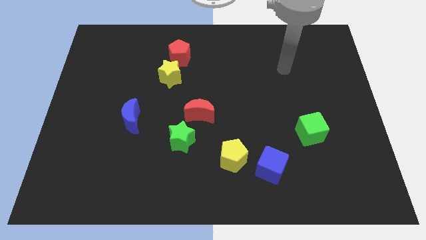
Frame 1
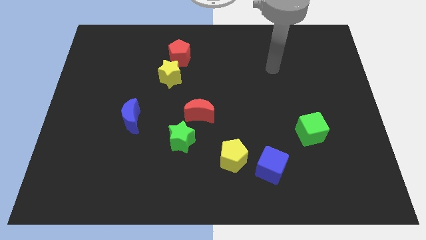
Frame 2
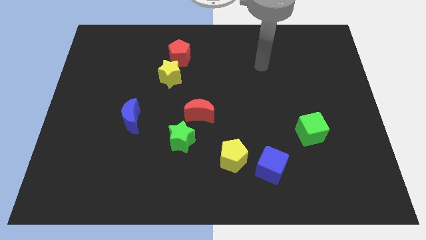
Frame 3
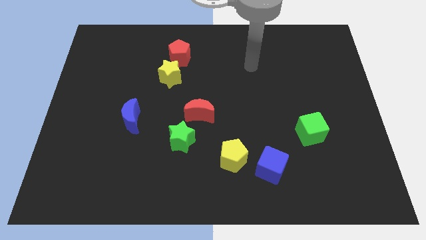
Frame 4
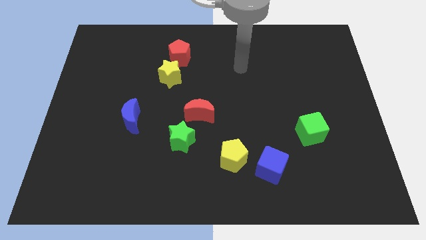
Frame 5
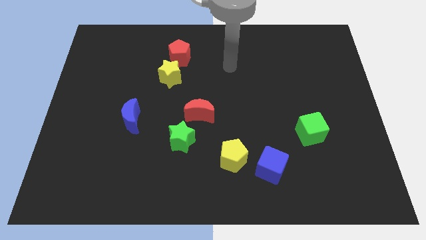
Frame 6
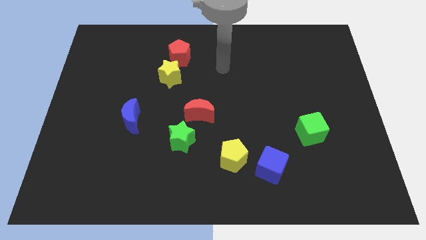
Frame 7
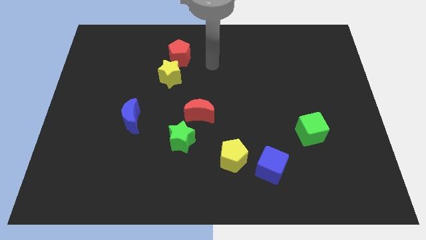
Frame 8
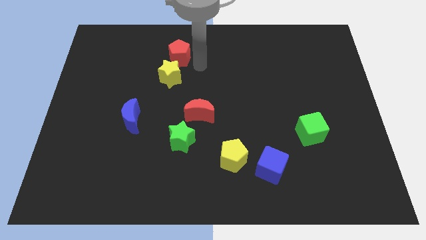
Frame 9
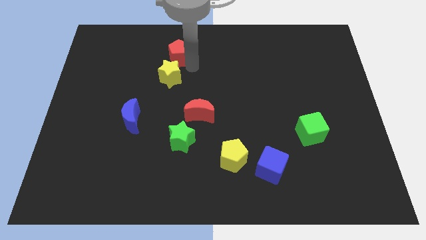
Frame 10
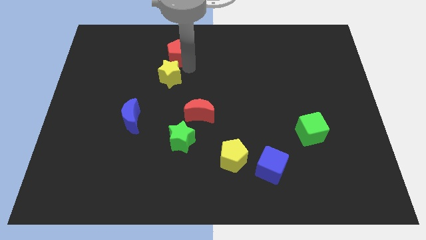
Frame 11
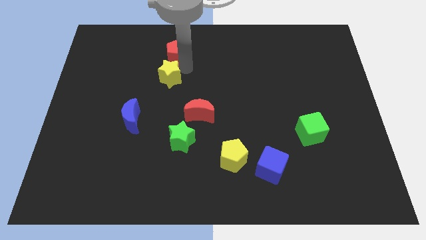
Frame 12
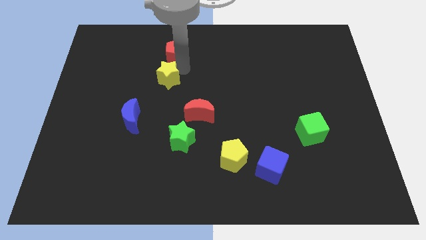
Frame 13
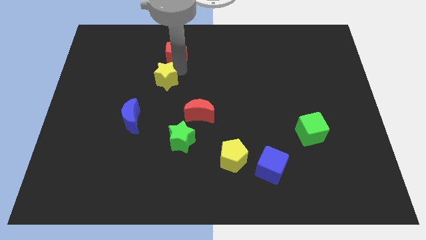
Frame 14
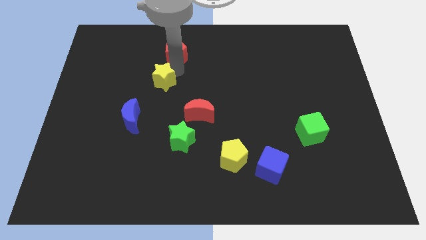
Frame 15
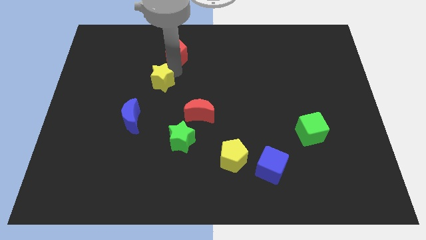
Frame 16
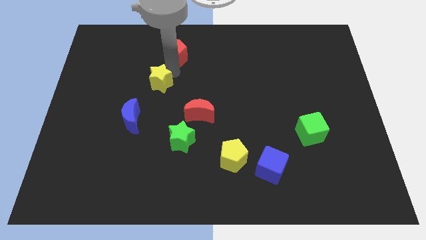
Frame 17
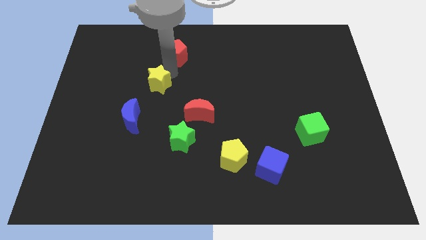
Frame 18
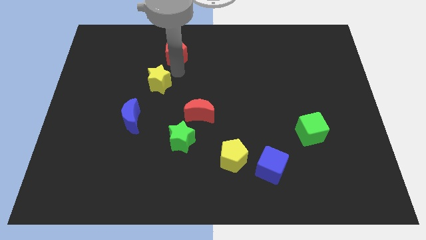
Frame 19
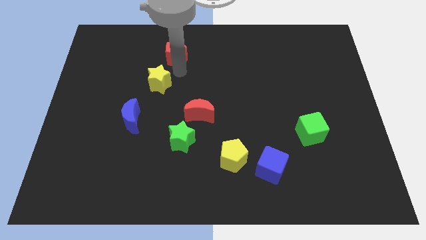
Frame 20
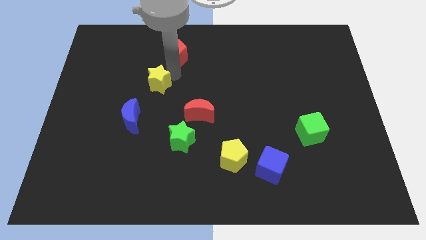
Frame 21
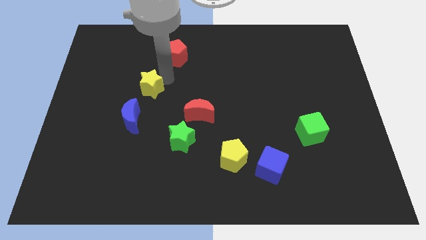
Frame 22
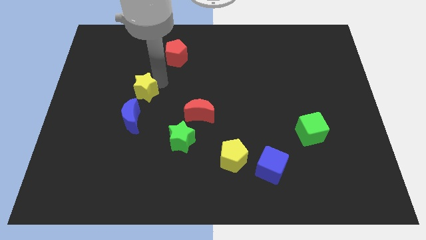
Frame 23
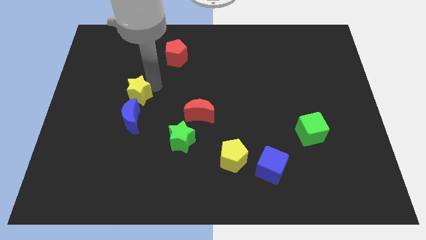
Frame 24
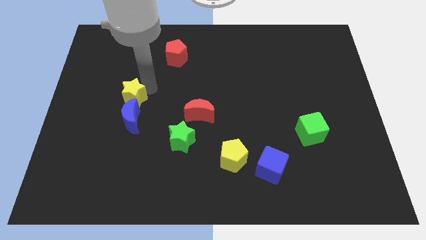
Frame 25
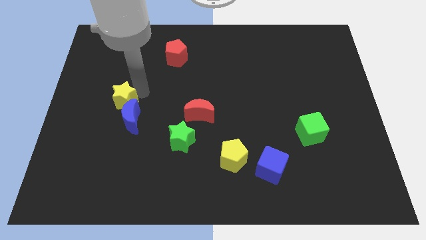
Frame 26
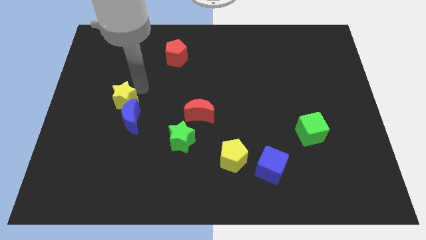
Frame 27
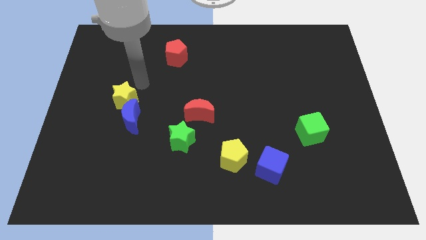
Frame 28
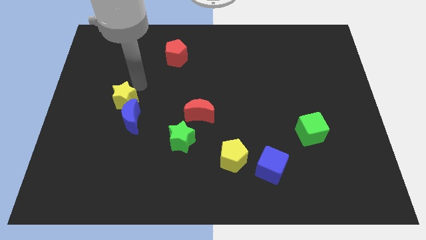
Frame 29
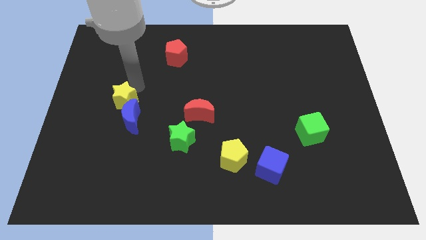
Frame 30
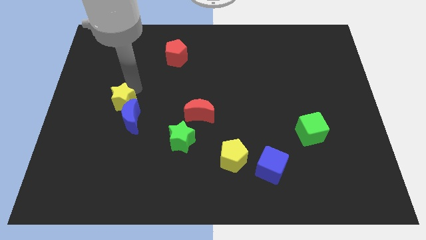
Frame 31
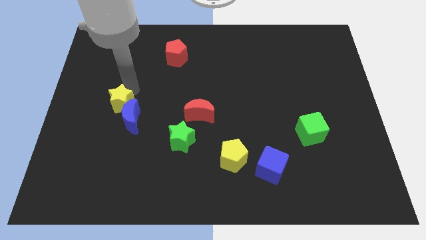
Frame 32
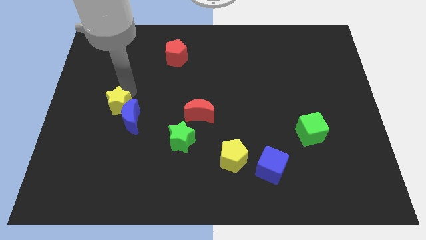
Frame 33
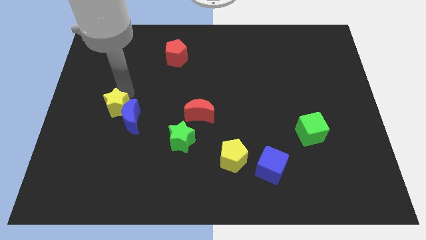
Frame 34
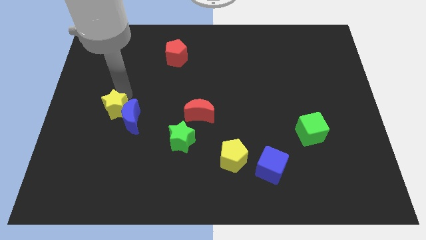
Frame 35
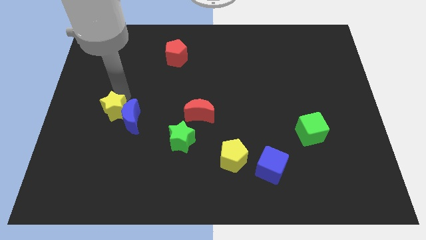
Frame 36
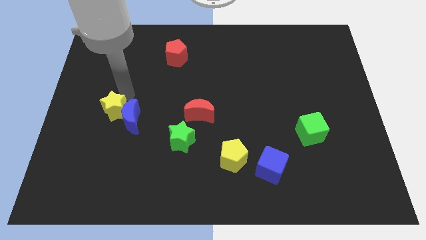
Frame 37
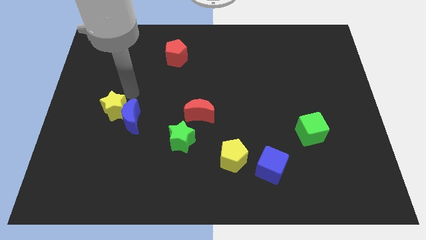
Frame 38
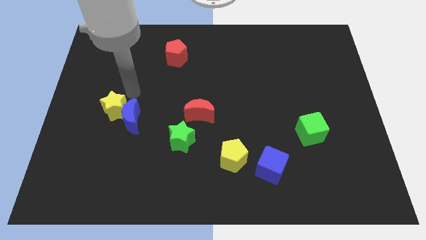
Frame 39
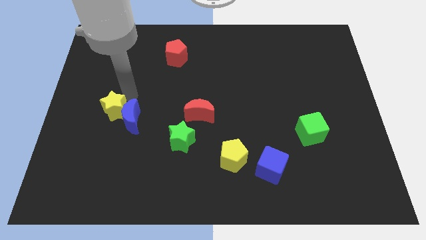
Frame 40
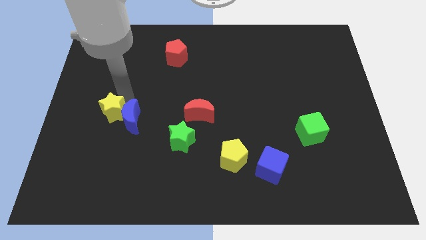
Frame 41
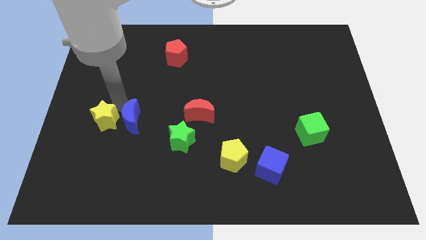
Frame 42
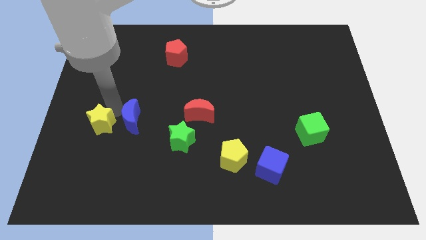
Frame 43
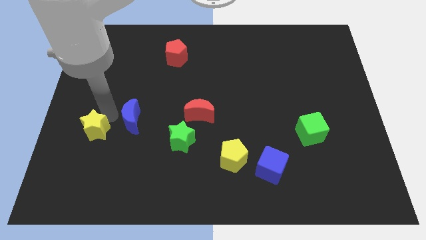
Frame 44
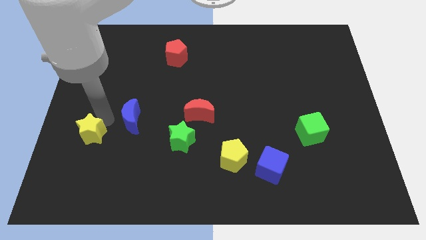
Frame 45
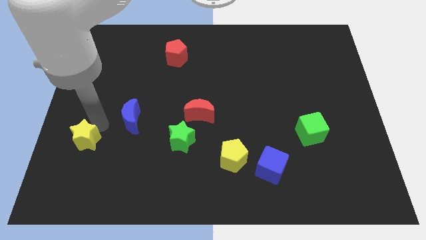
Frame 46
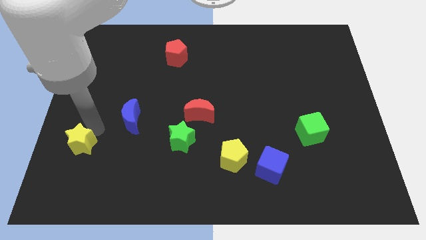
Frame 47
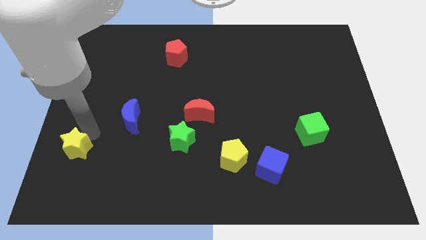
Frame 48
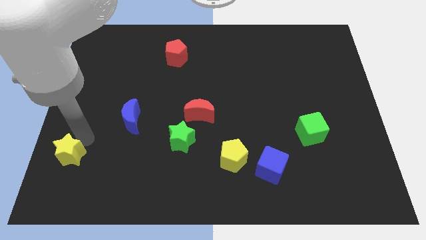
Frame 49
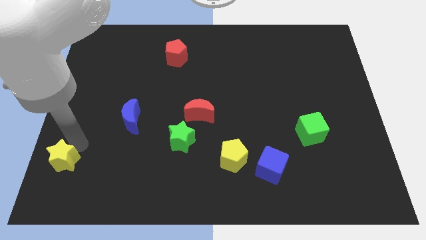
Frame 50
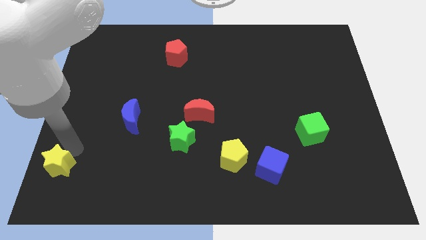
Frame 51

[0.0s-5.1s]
move the yellow star to the bottom left corner

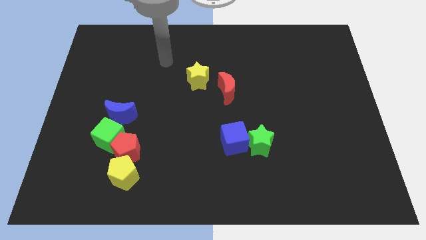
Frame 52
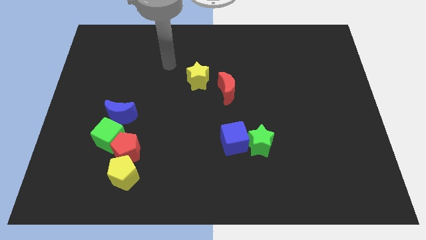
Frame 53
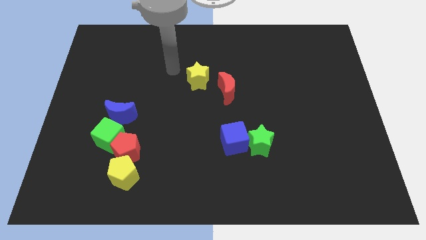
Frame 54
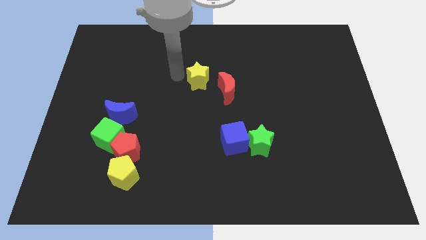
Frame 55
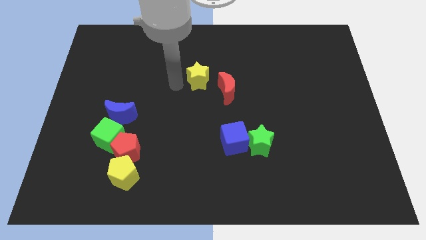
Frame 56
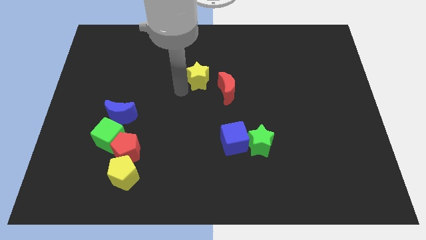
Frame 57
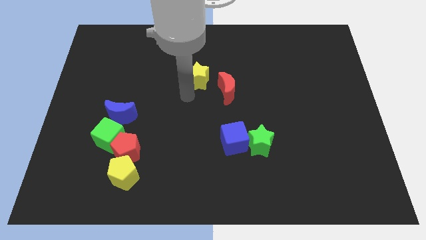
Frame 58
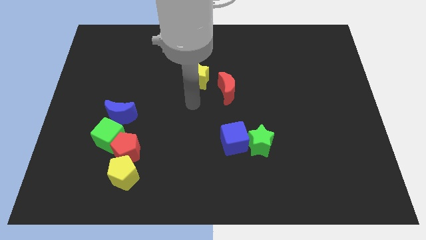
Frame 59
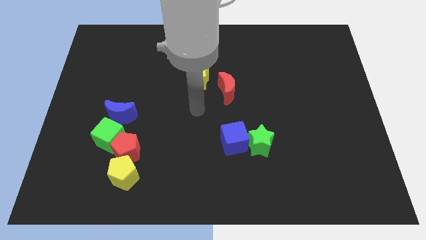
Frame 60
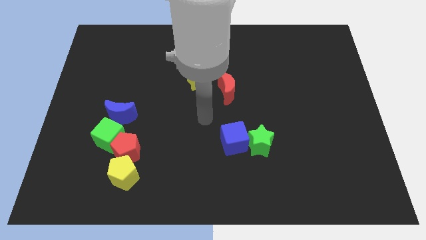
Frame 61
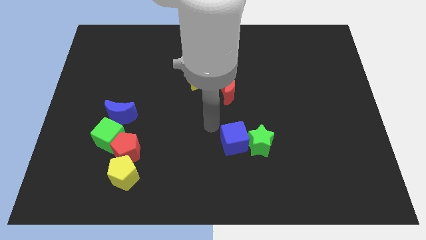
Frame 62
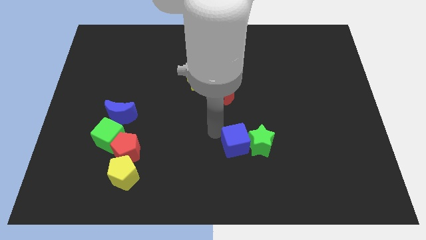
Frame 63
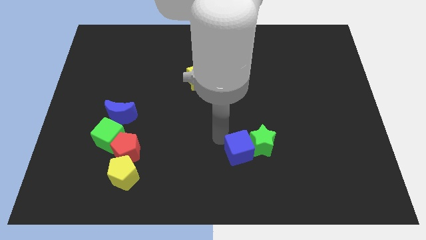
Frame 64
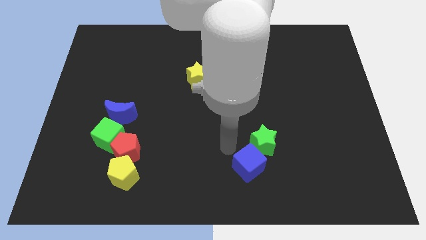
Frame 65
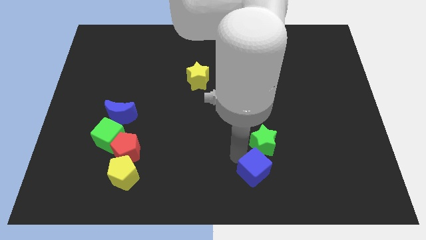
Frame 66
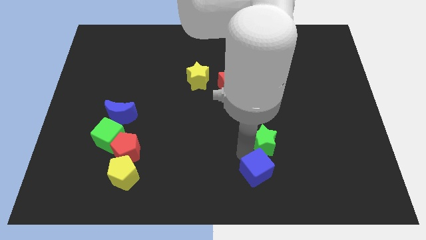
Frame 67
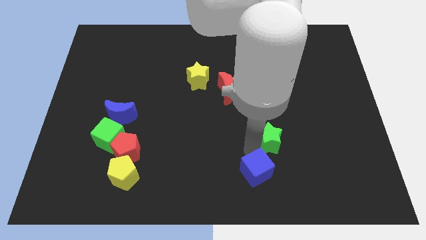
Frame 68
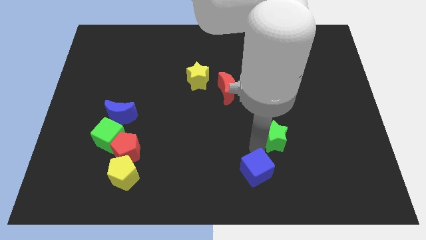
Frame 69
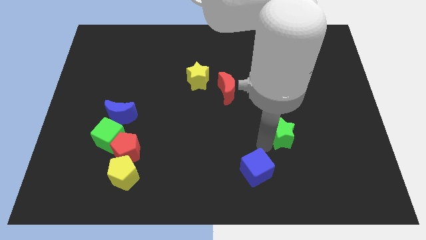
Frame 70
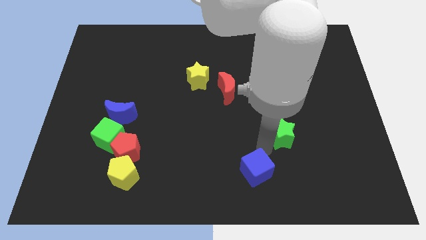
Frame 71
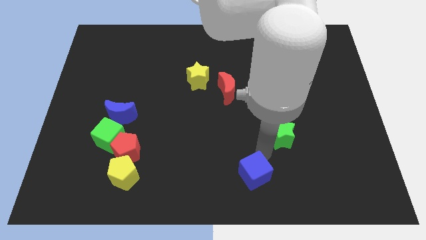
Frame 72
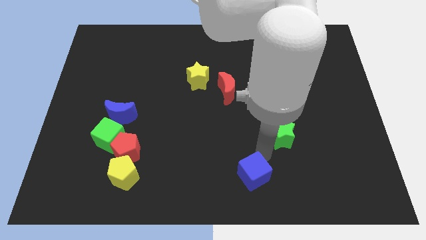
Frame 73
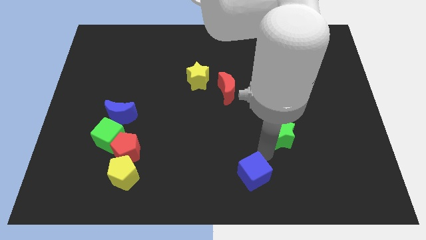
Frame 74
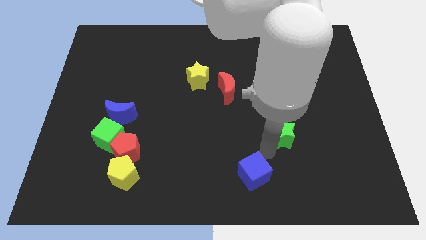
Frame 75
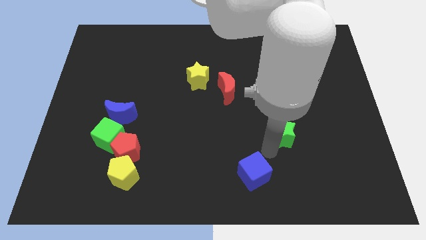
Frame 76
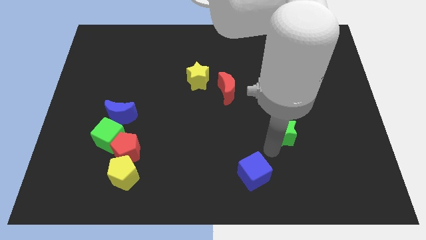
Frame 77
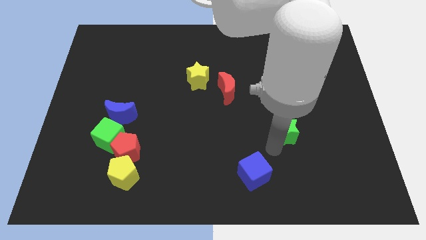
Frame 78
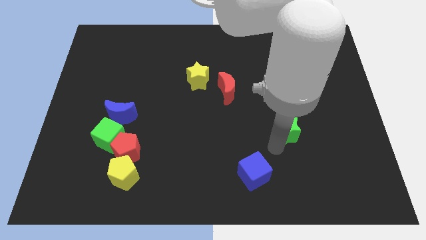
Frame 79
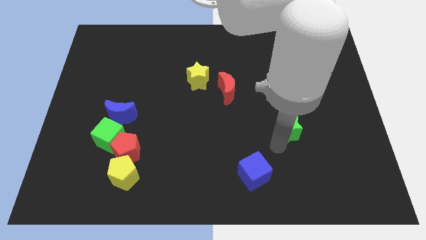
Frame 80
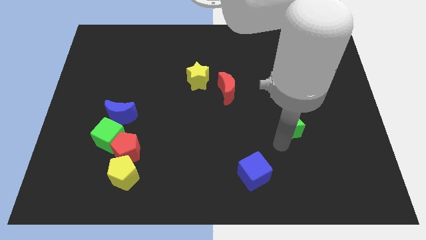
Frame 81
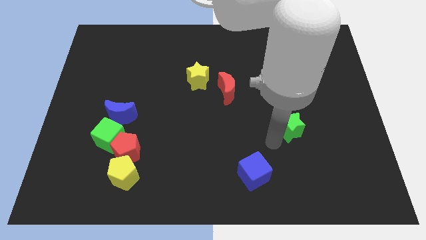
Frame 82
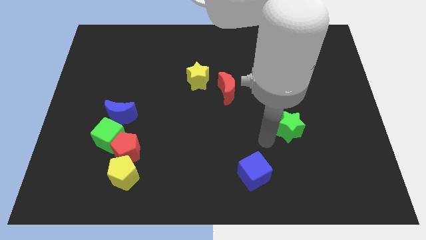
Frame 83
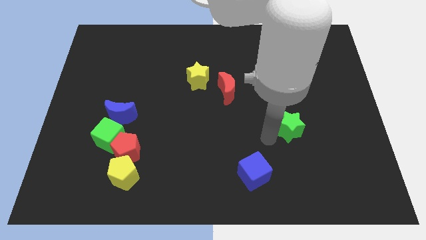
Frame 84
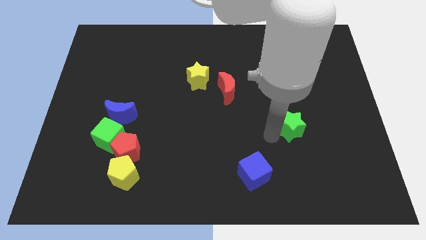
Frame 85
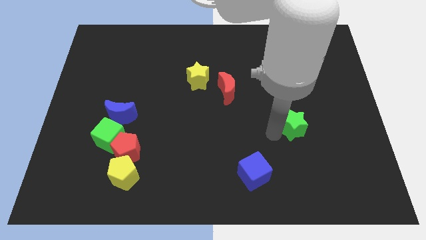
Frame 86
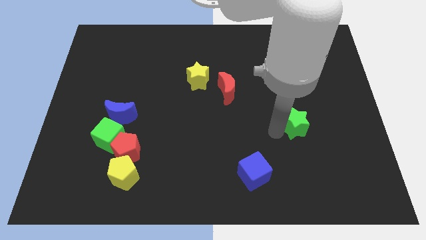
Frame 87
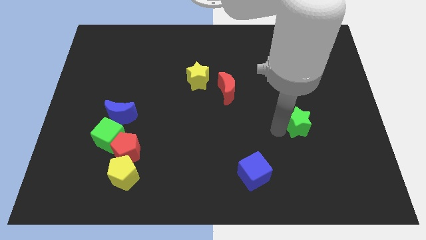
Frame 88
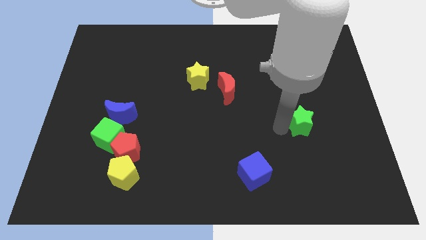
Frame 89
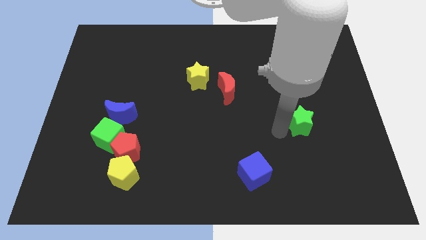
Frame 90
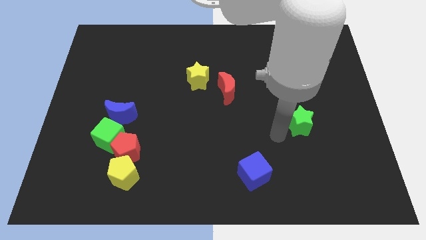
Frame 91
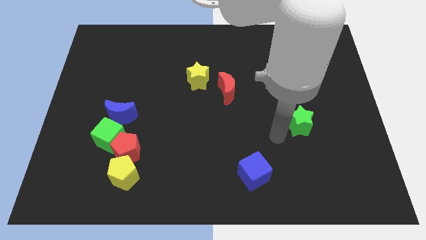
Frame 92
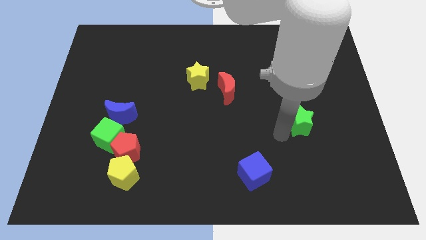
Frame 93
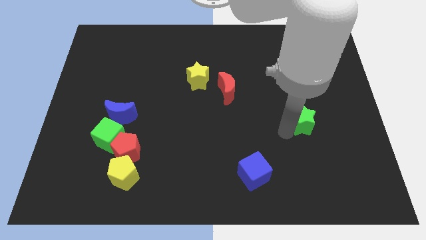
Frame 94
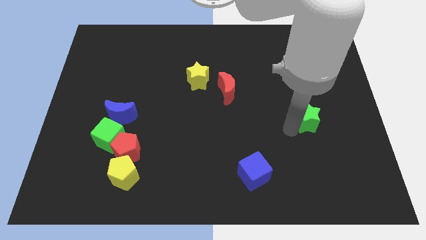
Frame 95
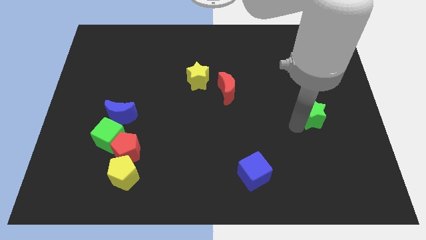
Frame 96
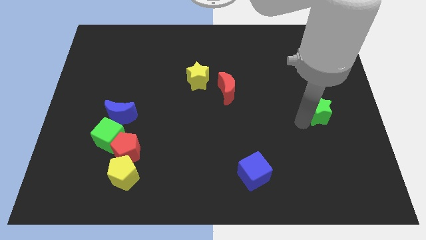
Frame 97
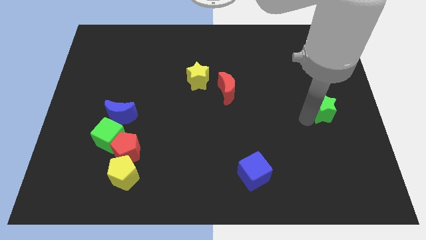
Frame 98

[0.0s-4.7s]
put the green star to the center right
